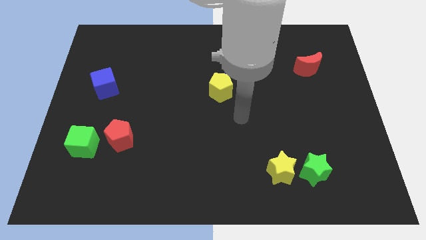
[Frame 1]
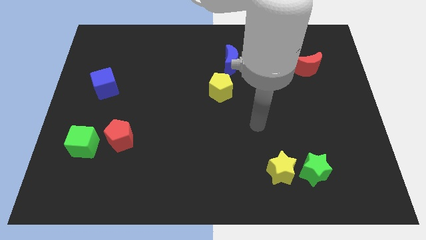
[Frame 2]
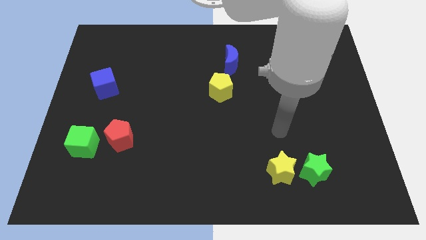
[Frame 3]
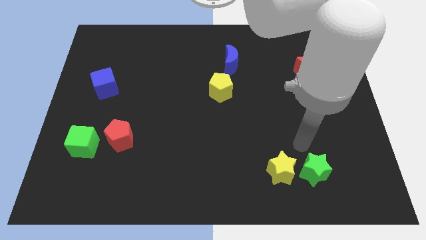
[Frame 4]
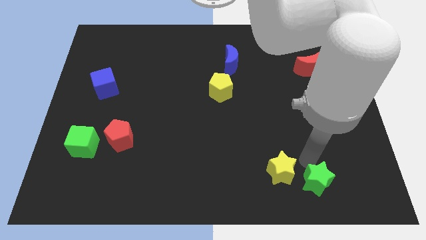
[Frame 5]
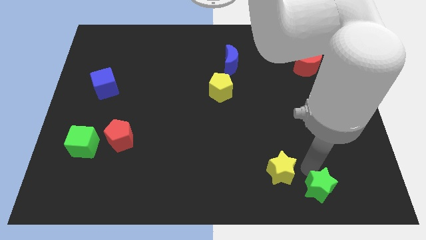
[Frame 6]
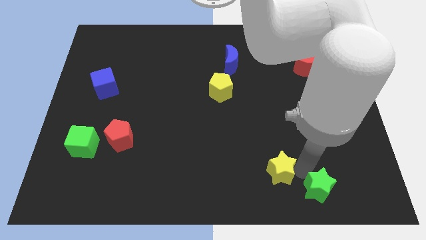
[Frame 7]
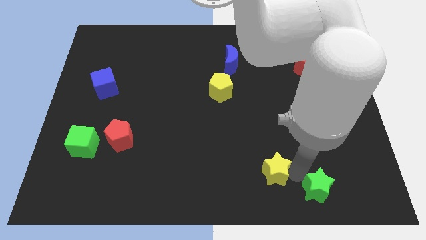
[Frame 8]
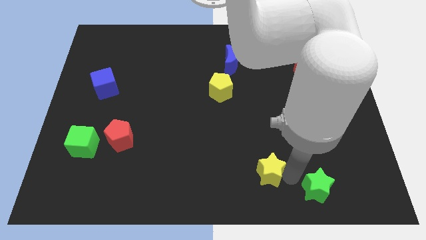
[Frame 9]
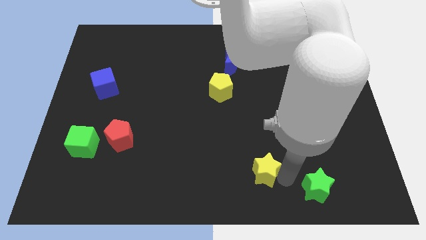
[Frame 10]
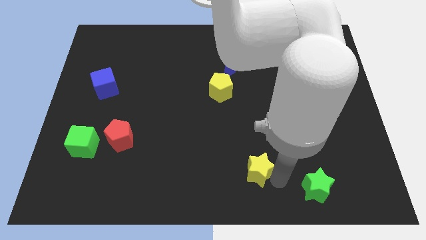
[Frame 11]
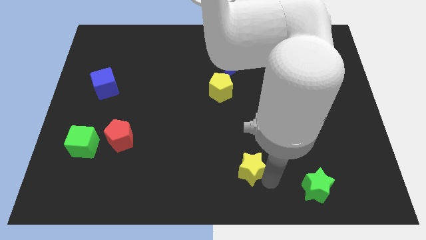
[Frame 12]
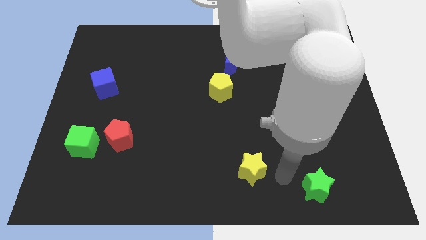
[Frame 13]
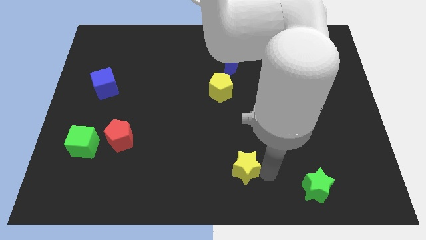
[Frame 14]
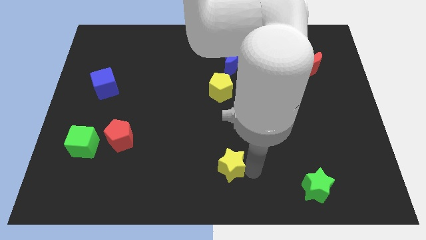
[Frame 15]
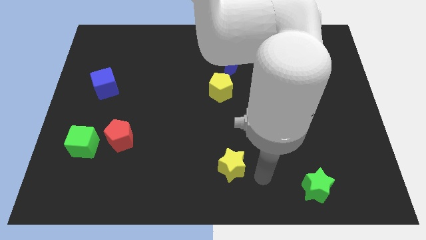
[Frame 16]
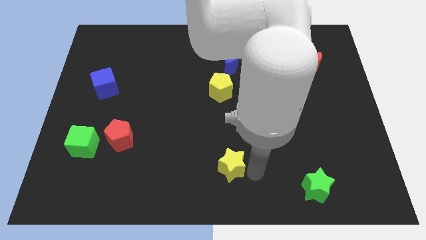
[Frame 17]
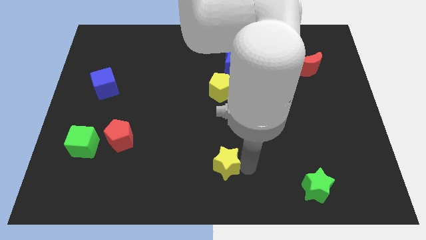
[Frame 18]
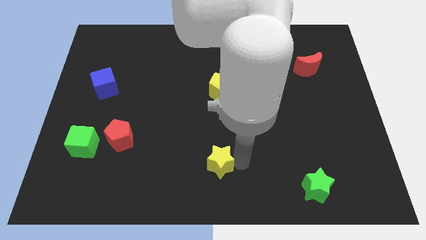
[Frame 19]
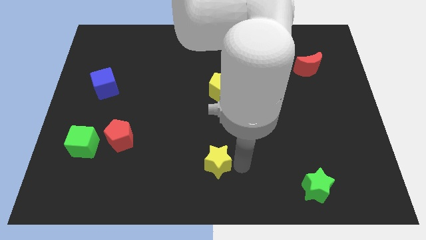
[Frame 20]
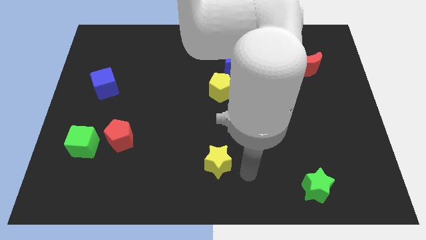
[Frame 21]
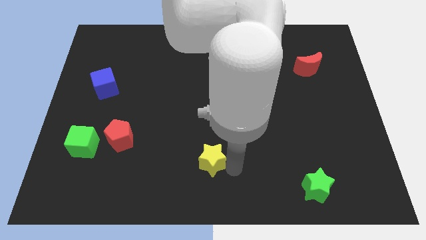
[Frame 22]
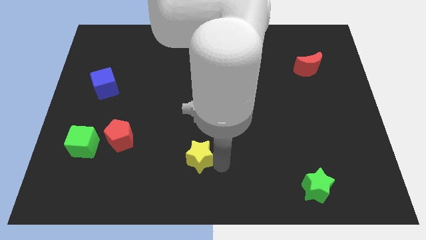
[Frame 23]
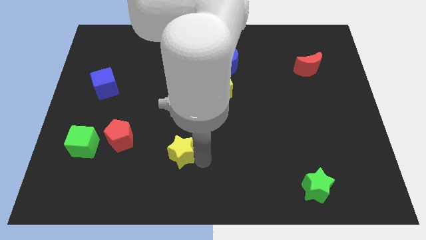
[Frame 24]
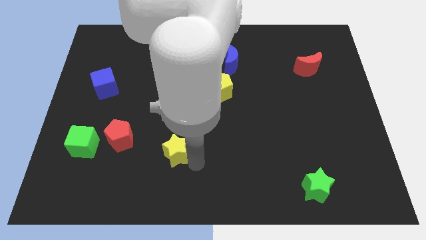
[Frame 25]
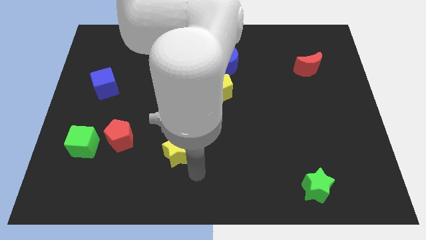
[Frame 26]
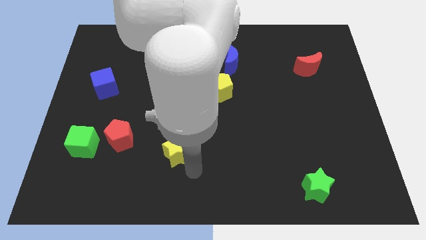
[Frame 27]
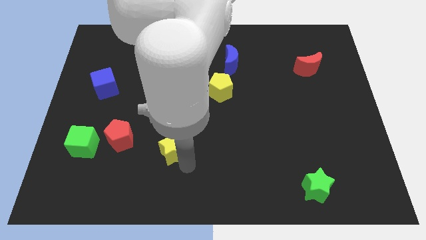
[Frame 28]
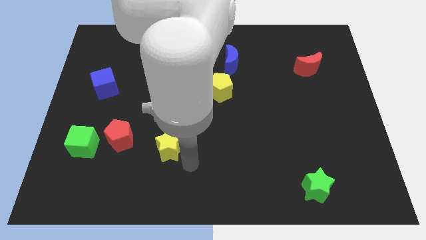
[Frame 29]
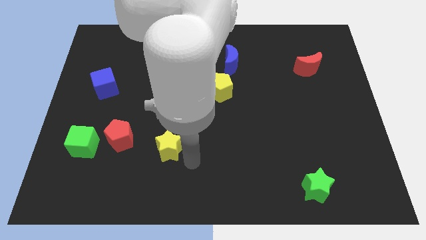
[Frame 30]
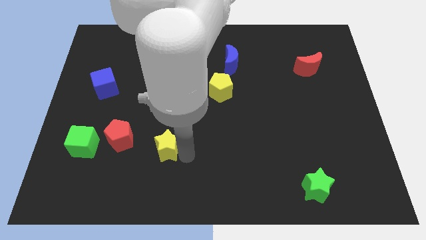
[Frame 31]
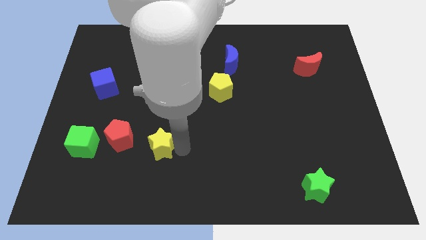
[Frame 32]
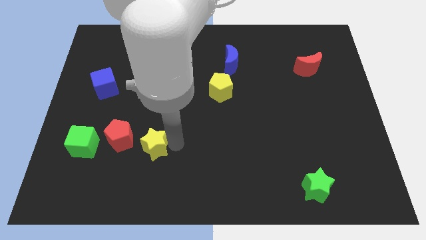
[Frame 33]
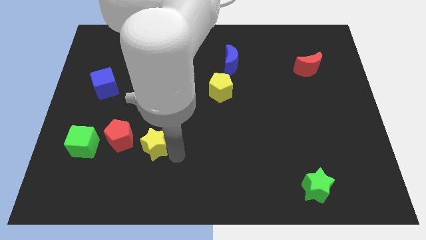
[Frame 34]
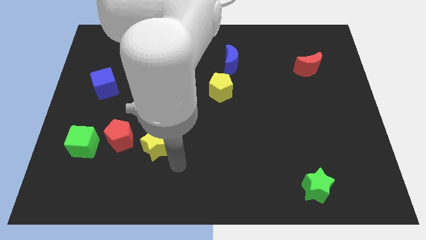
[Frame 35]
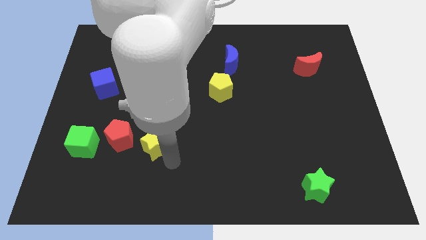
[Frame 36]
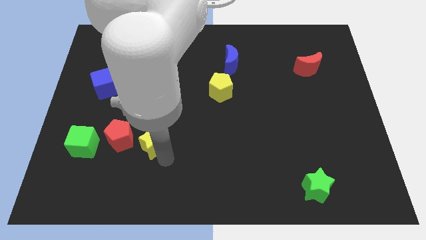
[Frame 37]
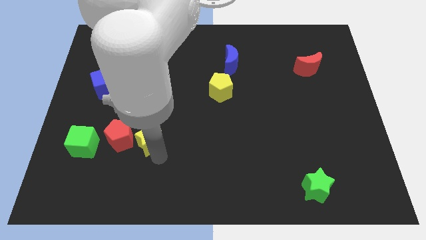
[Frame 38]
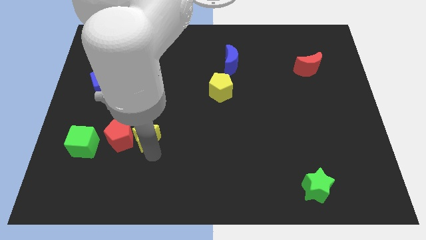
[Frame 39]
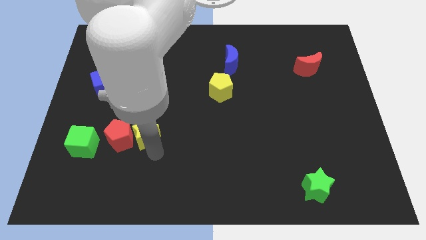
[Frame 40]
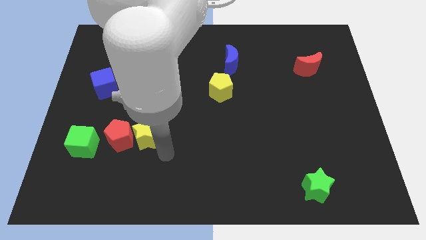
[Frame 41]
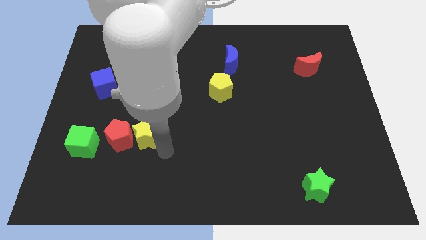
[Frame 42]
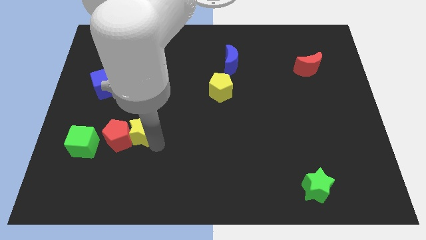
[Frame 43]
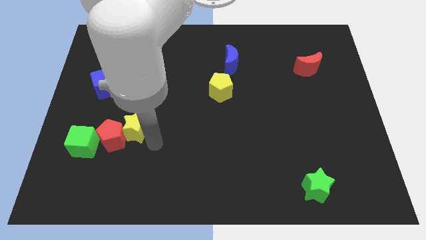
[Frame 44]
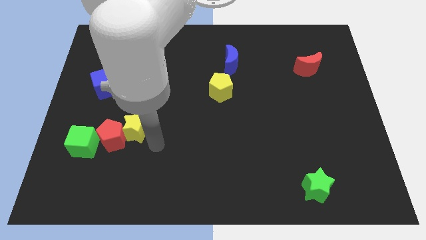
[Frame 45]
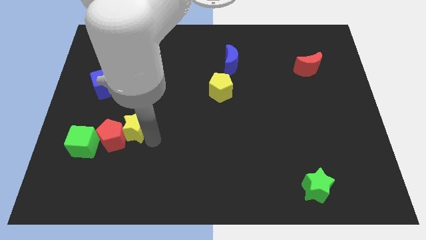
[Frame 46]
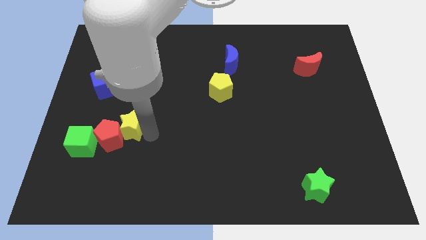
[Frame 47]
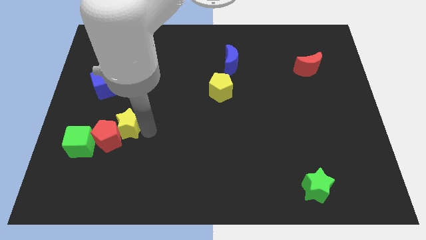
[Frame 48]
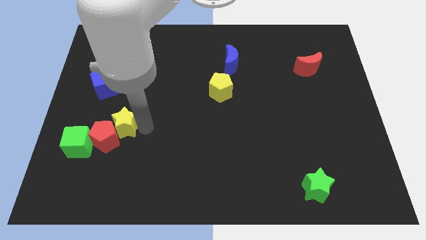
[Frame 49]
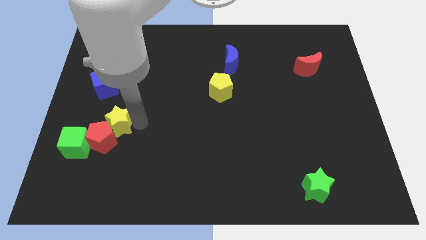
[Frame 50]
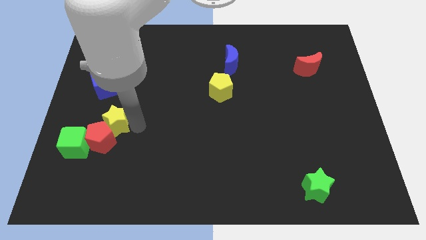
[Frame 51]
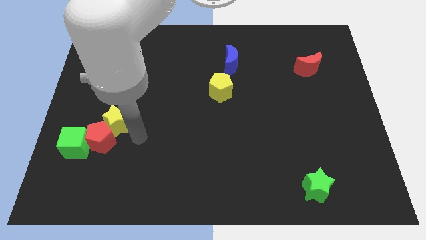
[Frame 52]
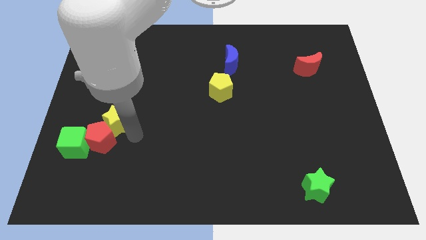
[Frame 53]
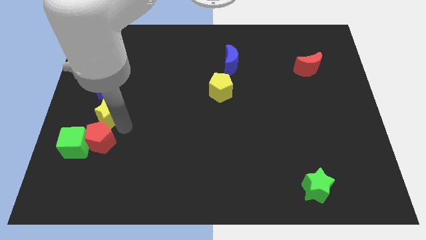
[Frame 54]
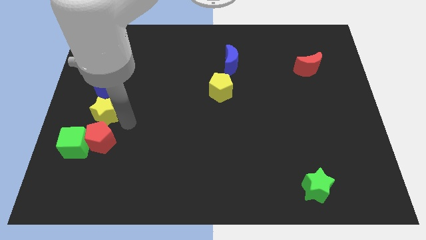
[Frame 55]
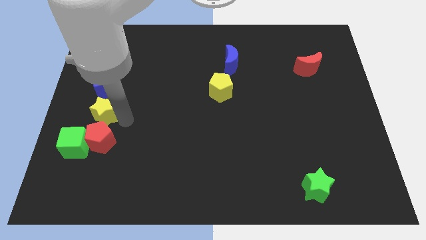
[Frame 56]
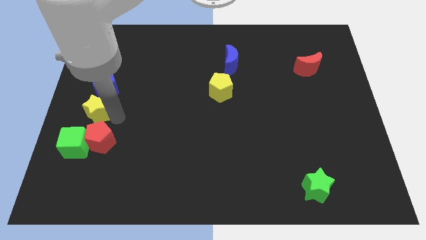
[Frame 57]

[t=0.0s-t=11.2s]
put the yellow star to the left side of the board

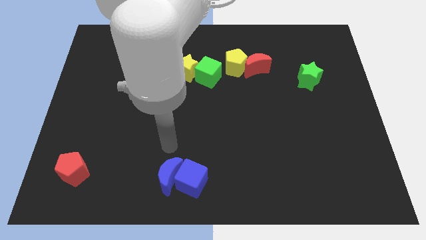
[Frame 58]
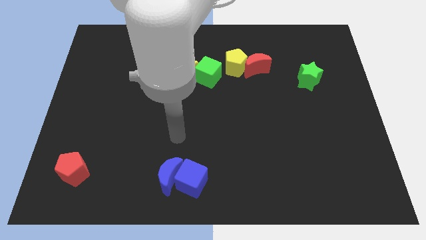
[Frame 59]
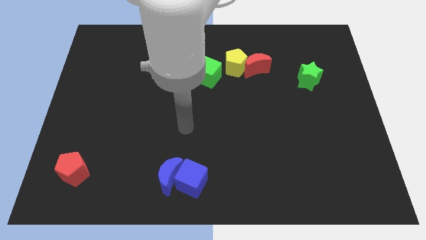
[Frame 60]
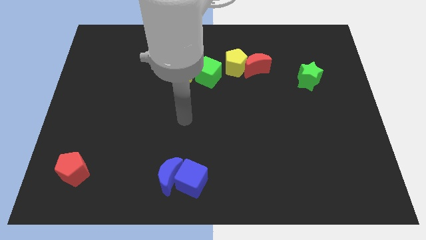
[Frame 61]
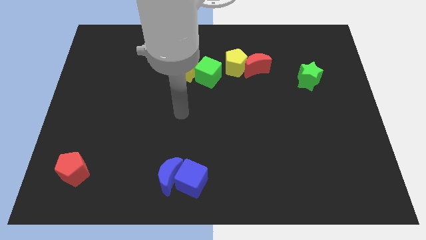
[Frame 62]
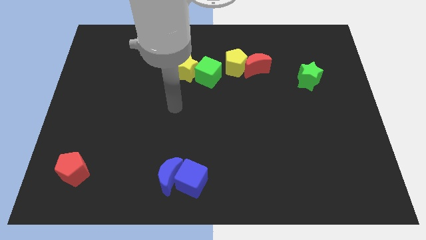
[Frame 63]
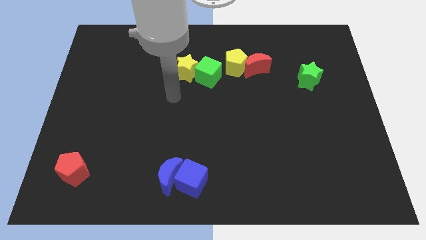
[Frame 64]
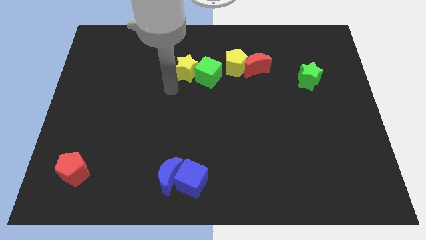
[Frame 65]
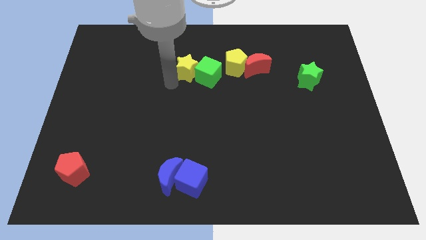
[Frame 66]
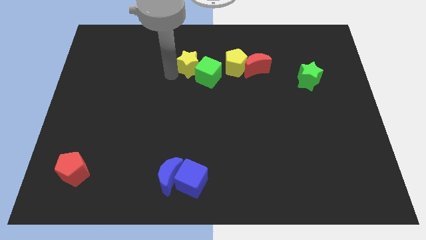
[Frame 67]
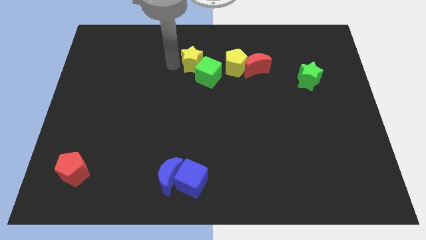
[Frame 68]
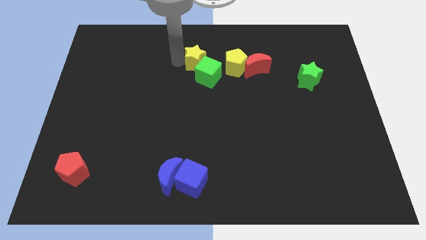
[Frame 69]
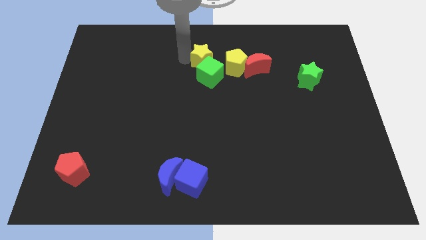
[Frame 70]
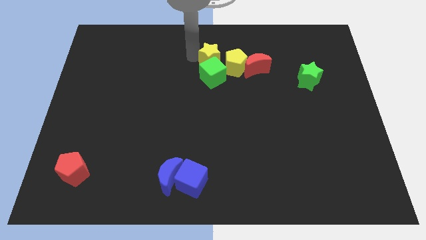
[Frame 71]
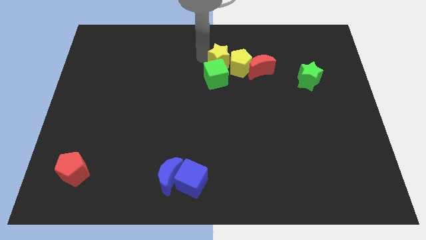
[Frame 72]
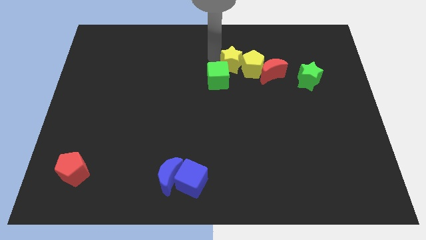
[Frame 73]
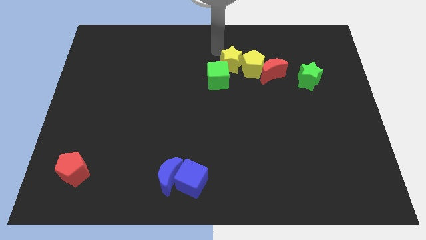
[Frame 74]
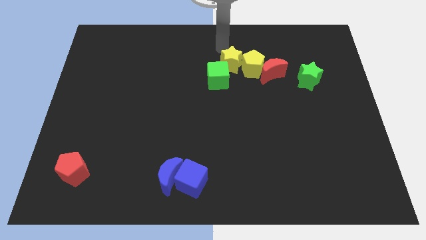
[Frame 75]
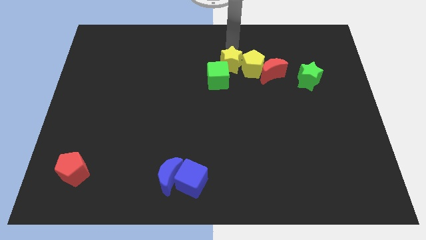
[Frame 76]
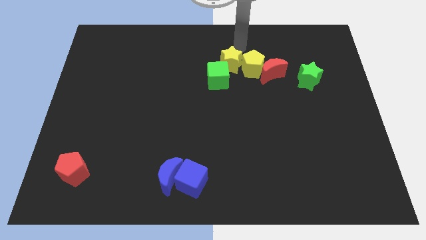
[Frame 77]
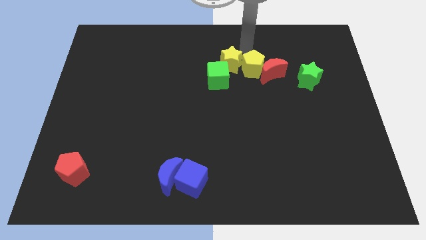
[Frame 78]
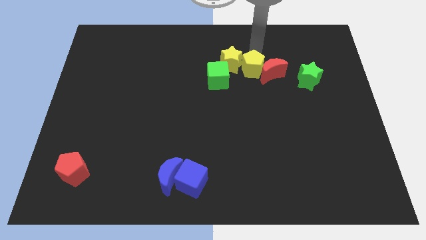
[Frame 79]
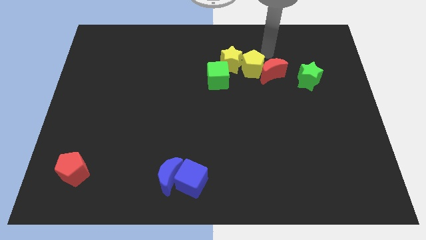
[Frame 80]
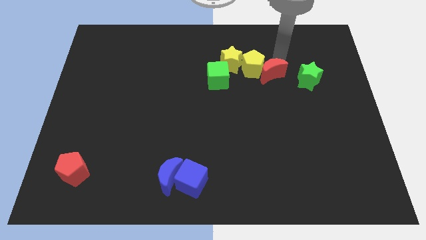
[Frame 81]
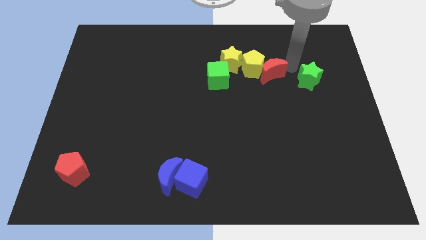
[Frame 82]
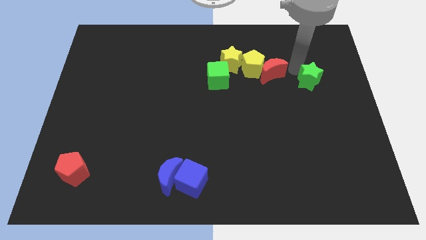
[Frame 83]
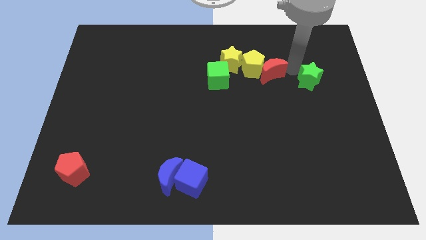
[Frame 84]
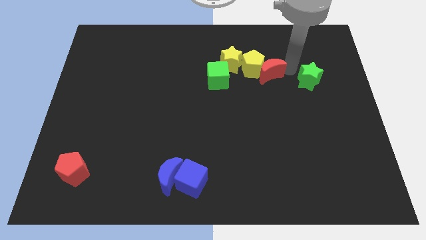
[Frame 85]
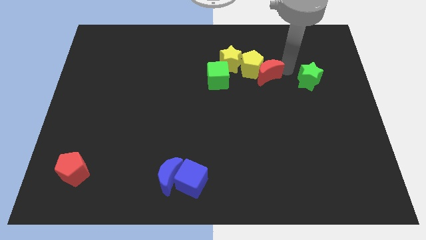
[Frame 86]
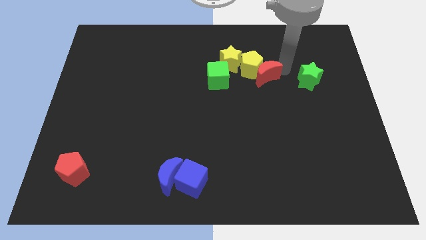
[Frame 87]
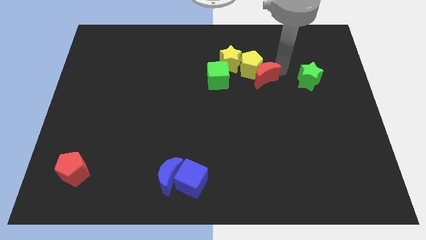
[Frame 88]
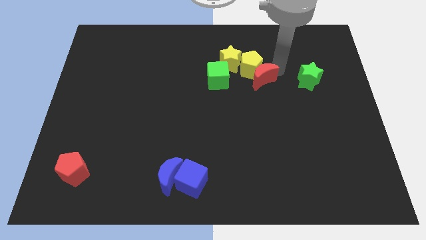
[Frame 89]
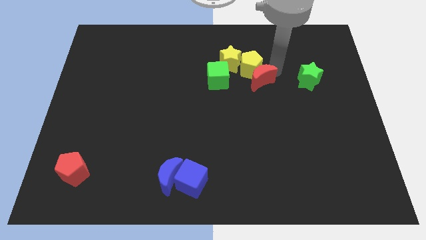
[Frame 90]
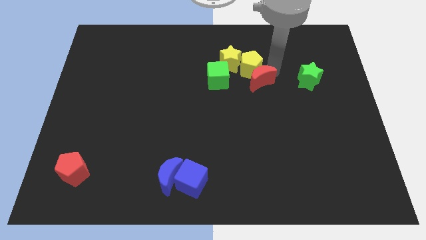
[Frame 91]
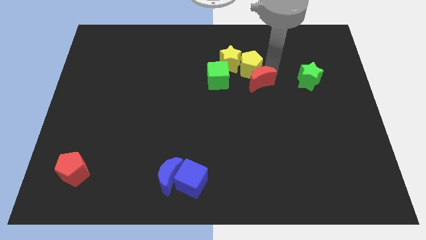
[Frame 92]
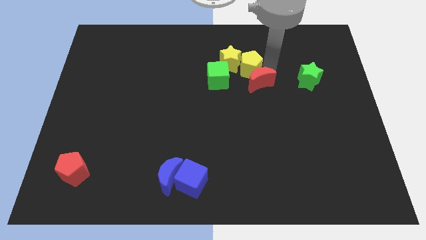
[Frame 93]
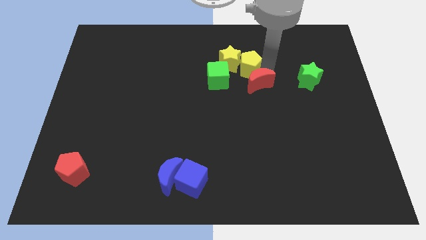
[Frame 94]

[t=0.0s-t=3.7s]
put the red moon to the middle of the board
